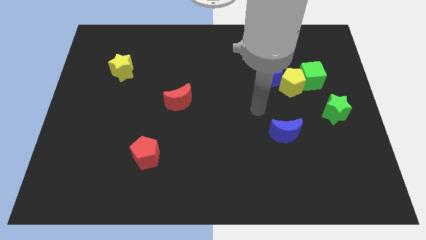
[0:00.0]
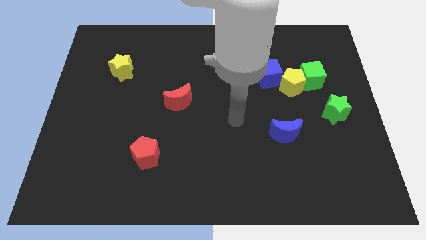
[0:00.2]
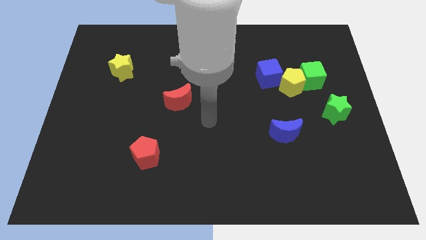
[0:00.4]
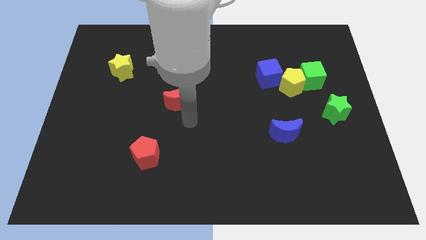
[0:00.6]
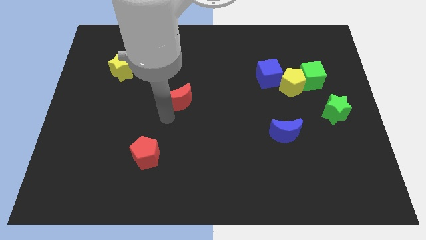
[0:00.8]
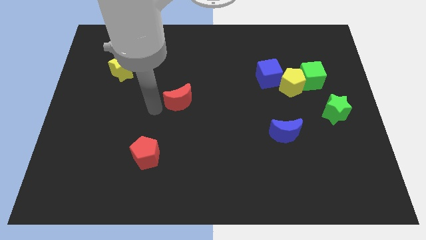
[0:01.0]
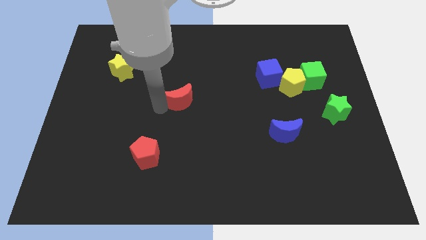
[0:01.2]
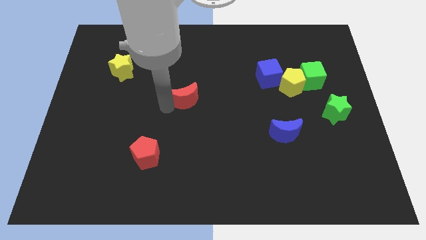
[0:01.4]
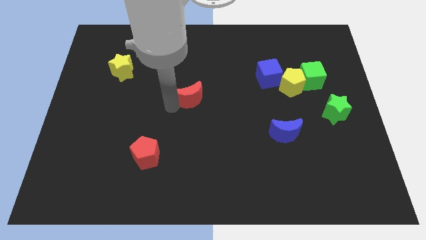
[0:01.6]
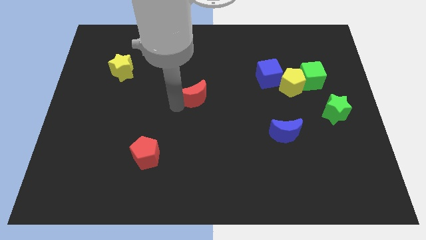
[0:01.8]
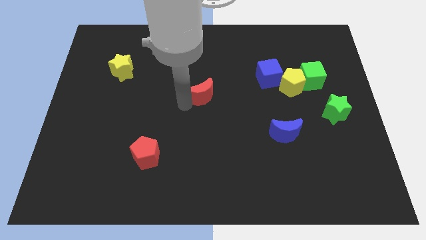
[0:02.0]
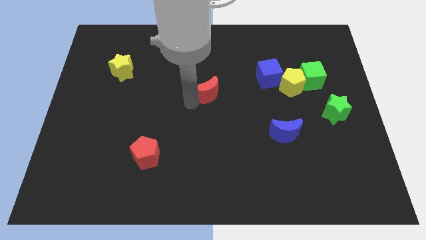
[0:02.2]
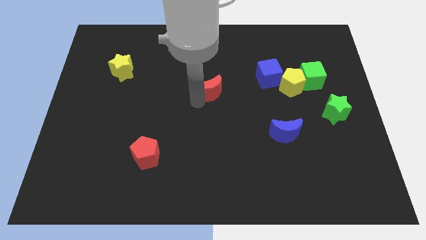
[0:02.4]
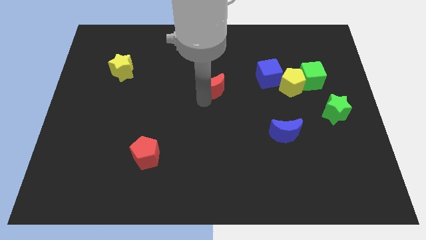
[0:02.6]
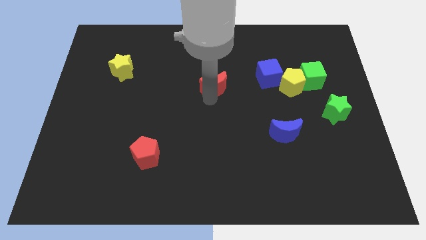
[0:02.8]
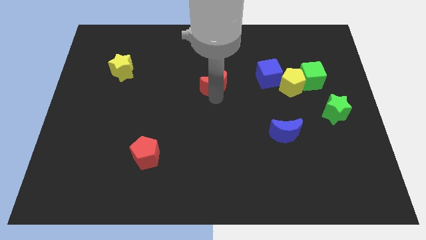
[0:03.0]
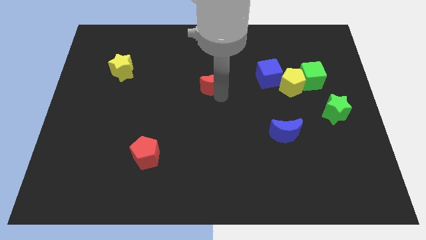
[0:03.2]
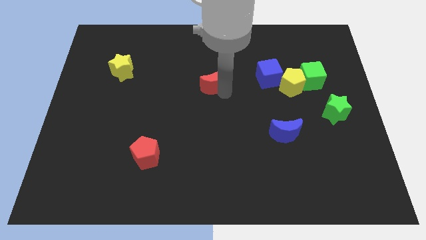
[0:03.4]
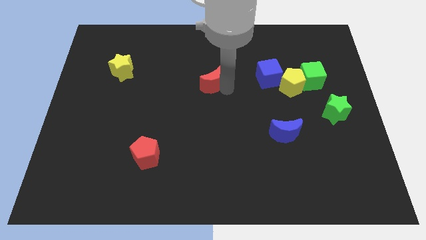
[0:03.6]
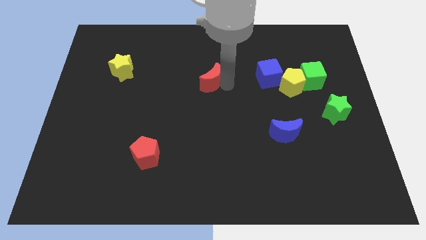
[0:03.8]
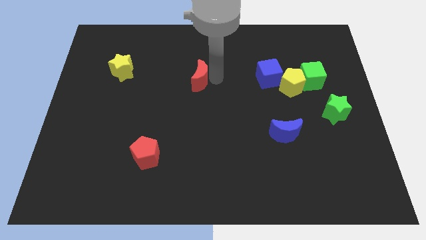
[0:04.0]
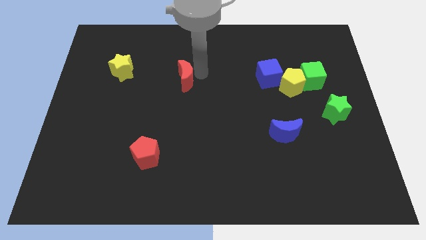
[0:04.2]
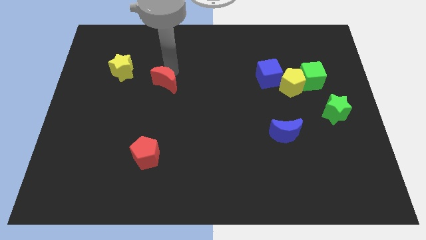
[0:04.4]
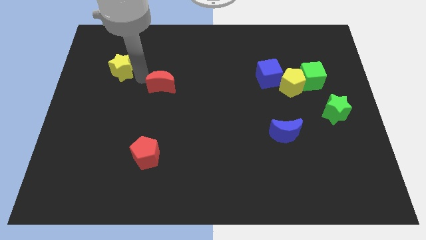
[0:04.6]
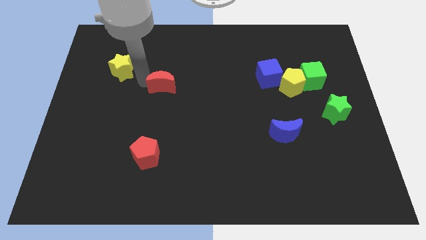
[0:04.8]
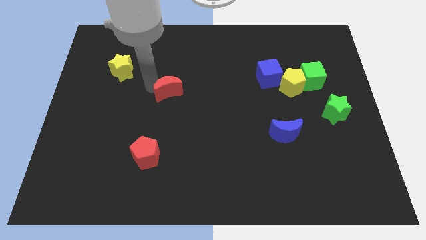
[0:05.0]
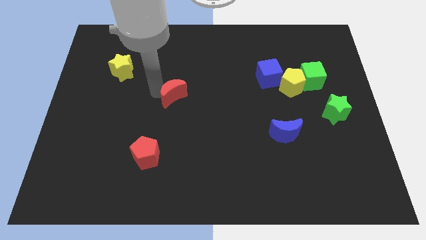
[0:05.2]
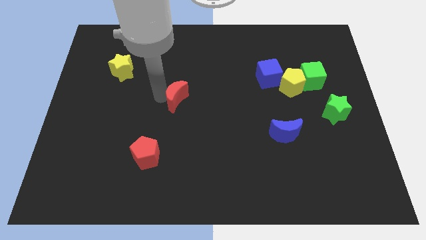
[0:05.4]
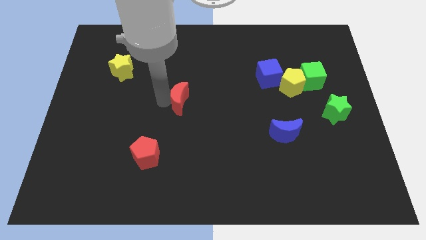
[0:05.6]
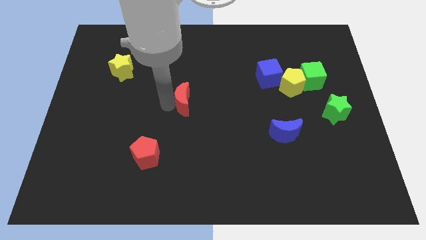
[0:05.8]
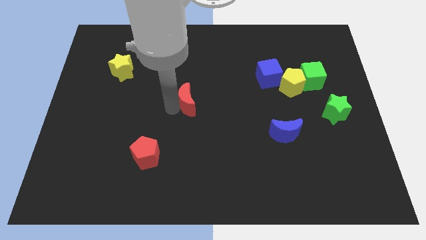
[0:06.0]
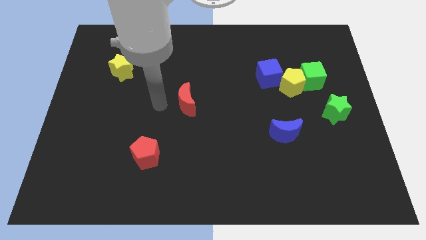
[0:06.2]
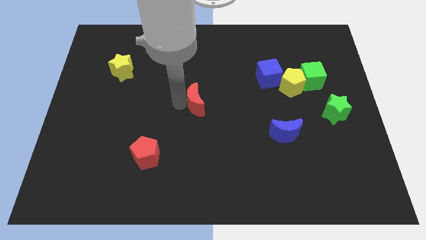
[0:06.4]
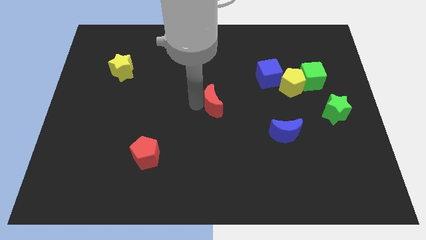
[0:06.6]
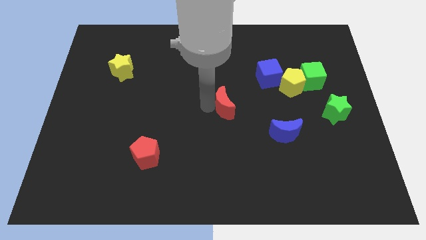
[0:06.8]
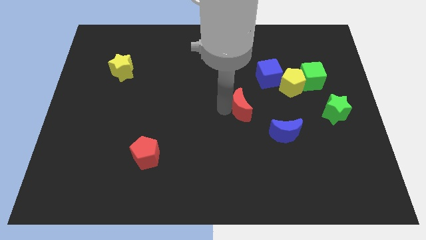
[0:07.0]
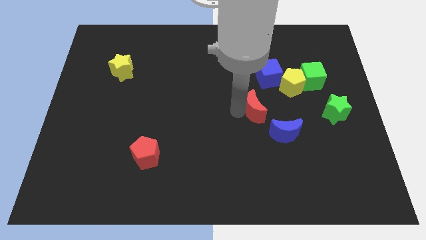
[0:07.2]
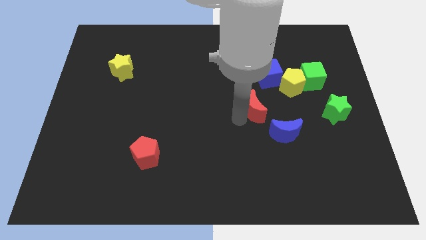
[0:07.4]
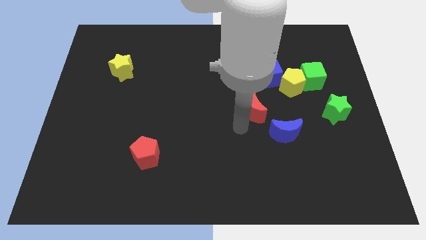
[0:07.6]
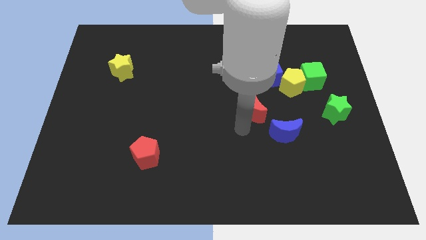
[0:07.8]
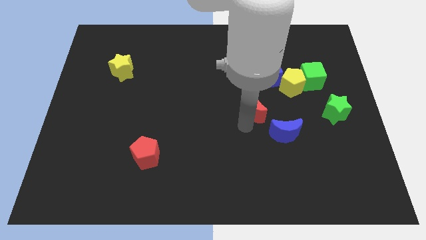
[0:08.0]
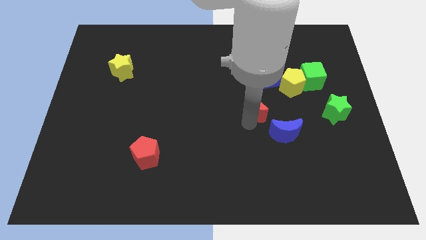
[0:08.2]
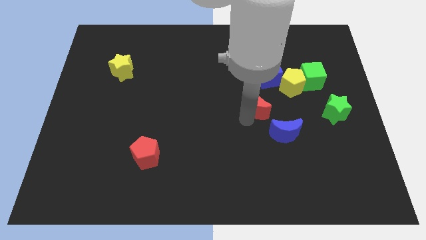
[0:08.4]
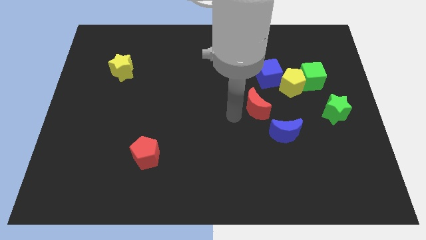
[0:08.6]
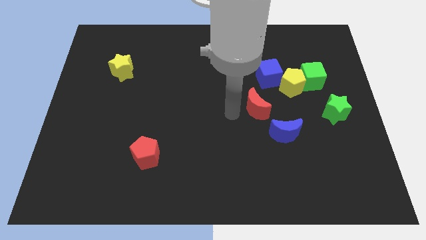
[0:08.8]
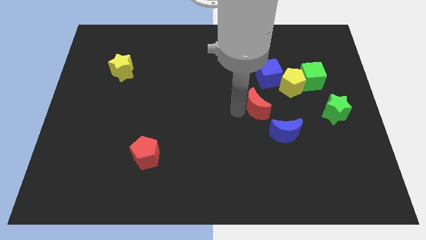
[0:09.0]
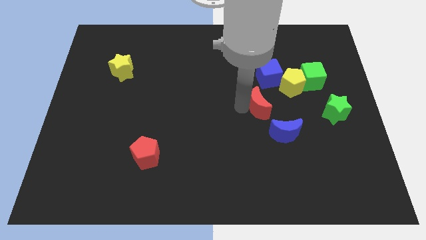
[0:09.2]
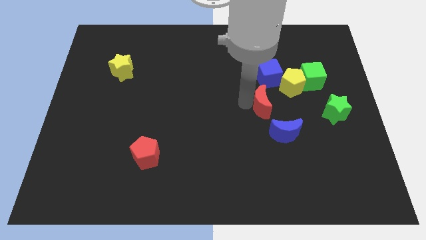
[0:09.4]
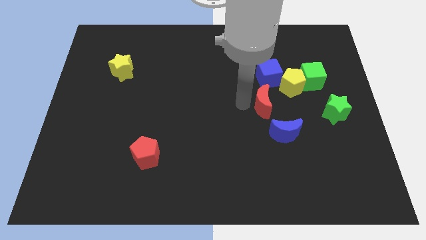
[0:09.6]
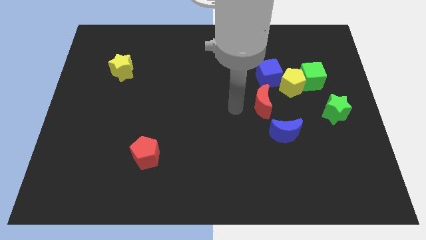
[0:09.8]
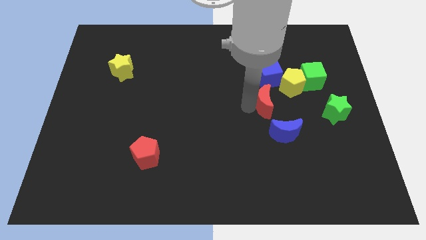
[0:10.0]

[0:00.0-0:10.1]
move the red moon right

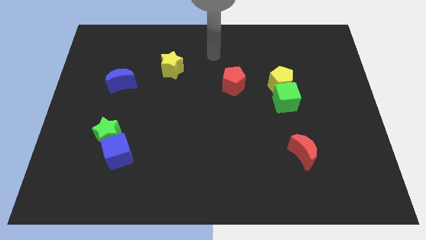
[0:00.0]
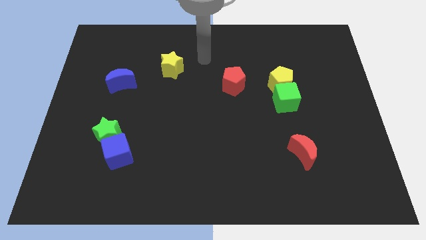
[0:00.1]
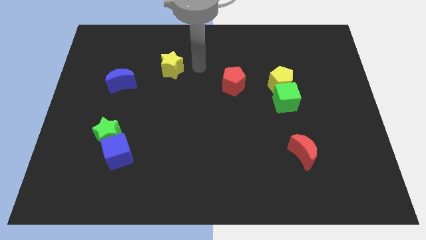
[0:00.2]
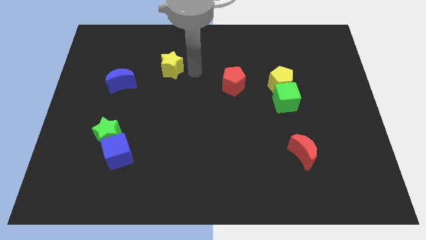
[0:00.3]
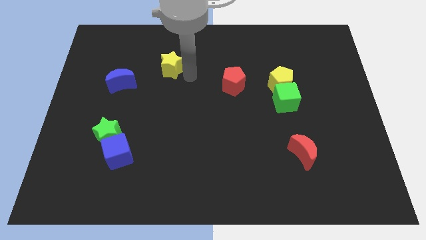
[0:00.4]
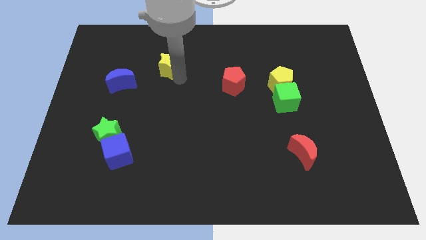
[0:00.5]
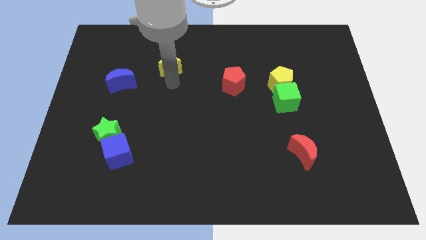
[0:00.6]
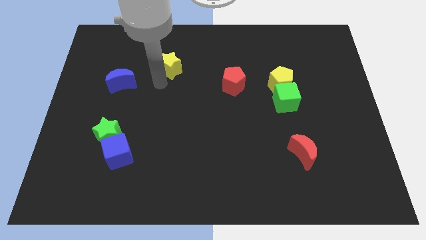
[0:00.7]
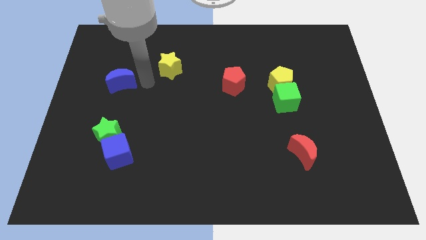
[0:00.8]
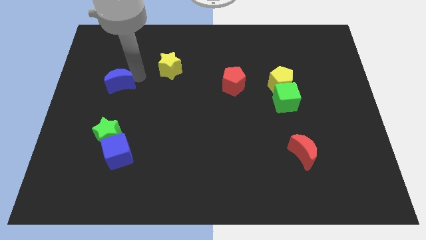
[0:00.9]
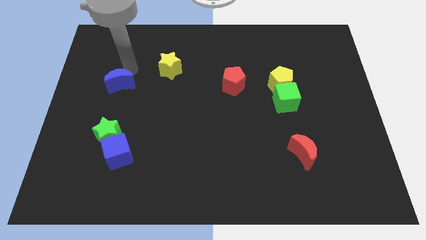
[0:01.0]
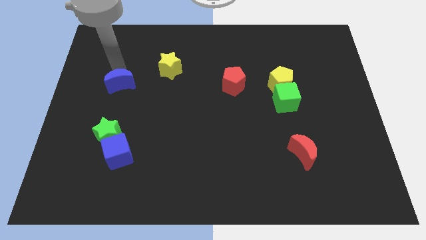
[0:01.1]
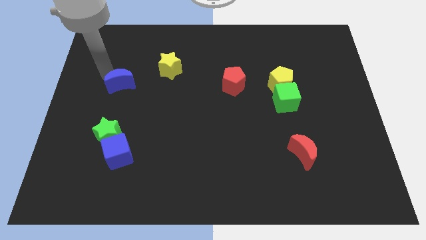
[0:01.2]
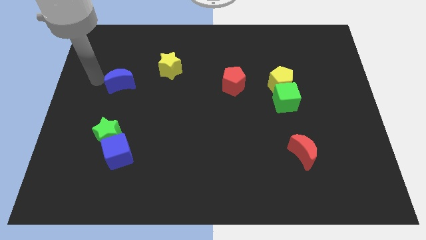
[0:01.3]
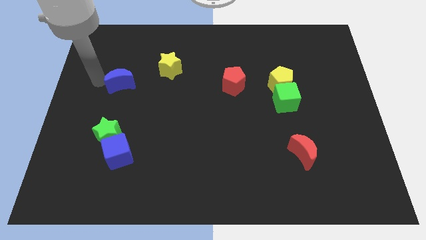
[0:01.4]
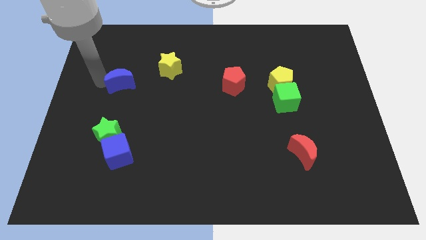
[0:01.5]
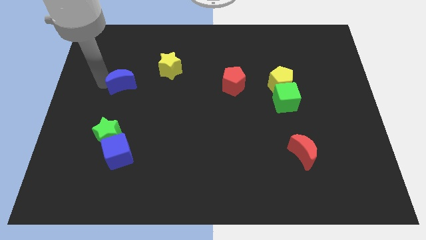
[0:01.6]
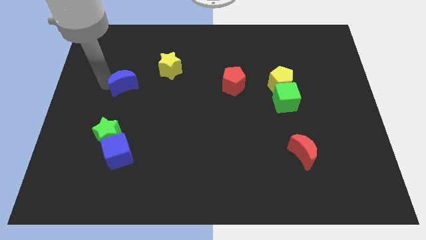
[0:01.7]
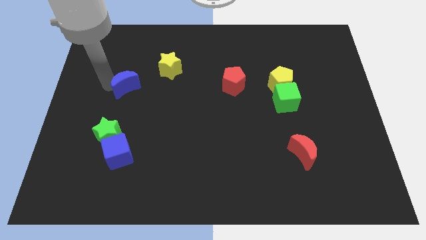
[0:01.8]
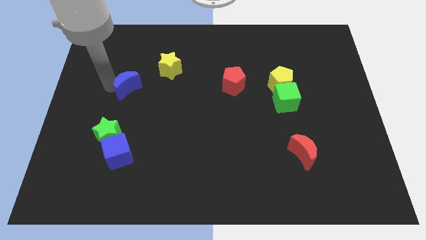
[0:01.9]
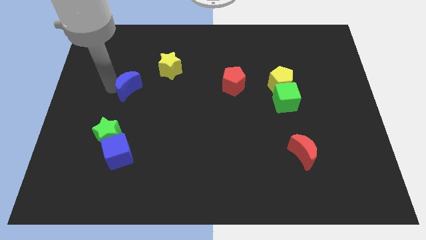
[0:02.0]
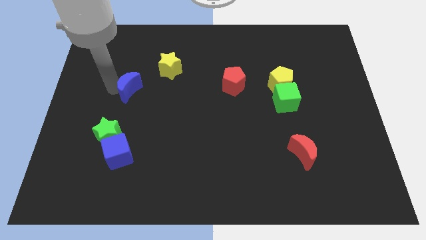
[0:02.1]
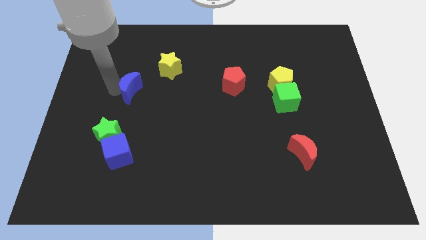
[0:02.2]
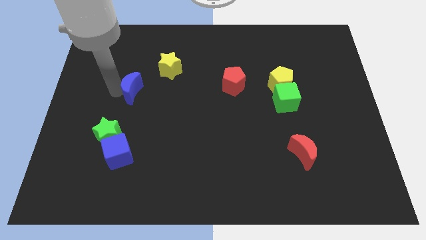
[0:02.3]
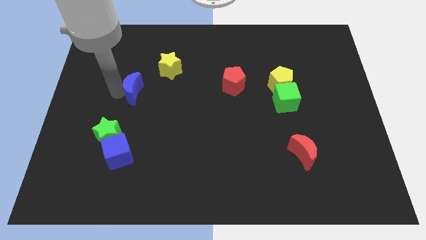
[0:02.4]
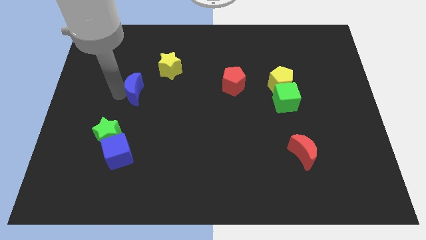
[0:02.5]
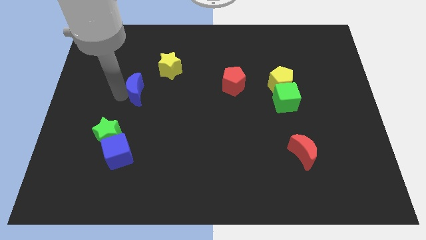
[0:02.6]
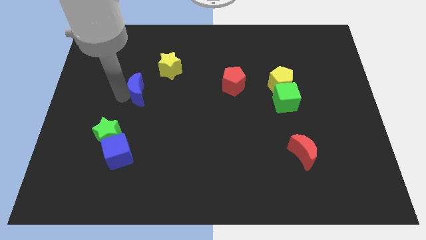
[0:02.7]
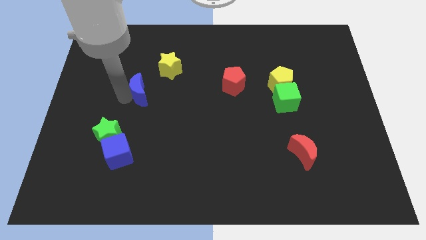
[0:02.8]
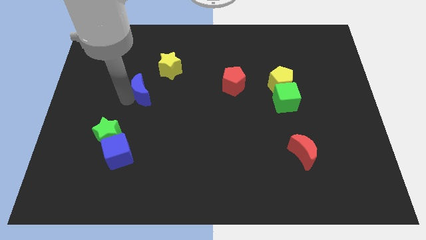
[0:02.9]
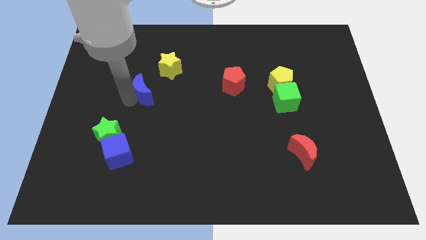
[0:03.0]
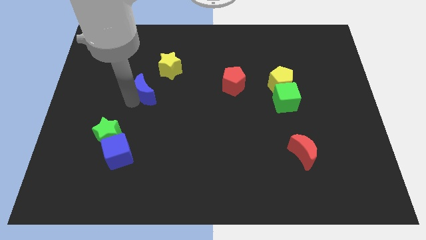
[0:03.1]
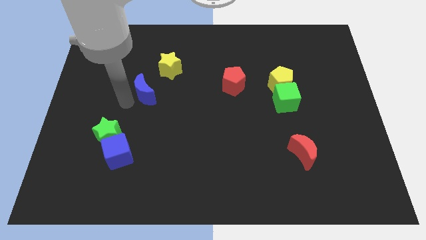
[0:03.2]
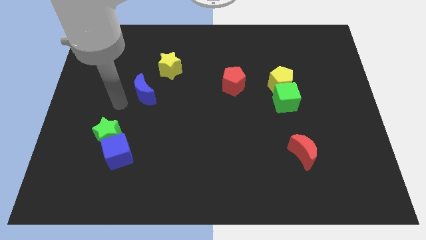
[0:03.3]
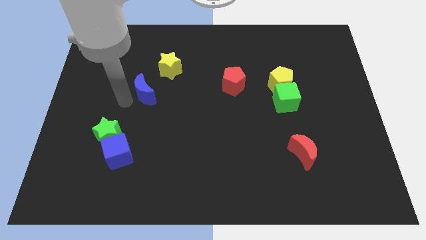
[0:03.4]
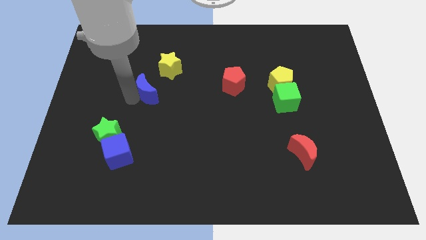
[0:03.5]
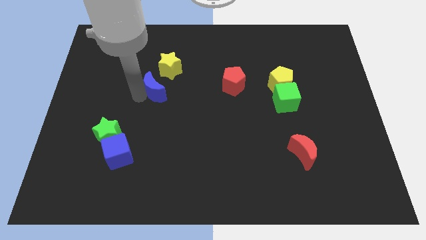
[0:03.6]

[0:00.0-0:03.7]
push the blue moon to the right somewhat
